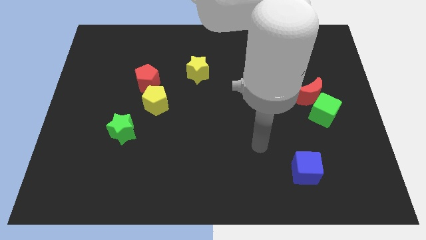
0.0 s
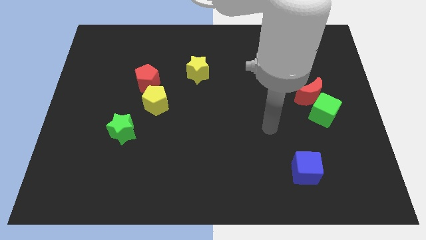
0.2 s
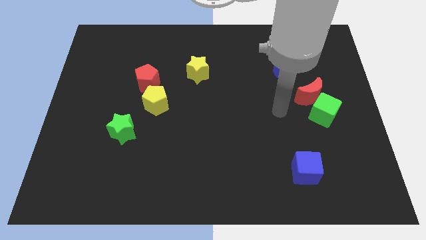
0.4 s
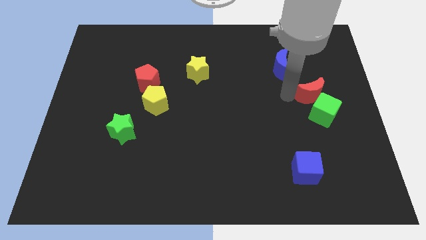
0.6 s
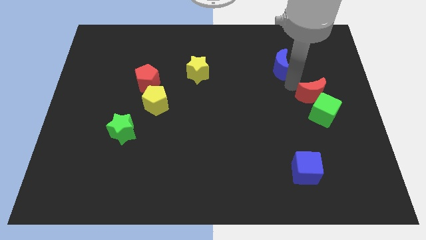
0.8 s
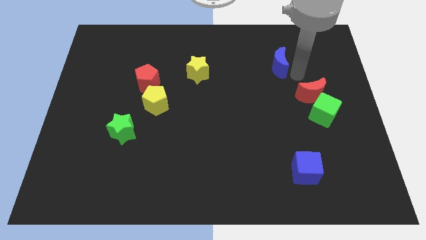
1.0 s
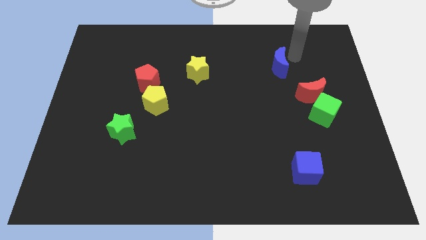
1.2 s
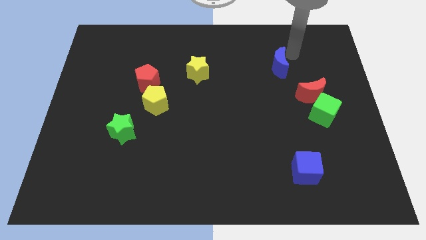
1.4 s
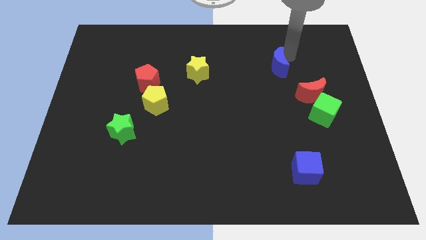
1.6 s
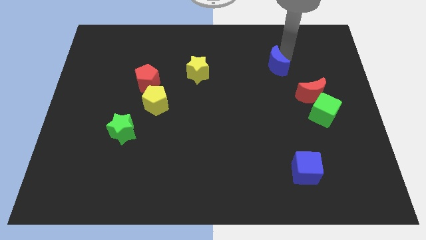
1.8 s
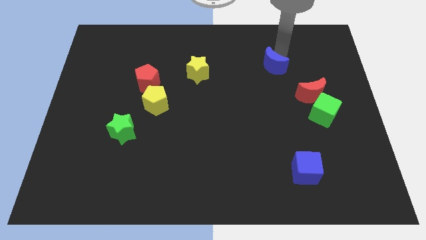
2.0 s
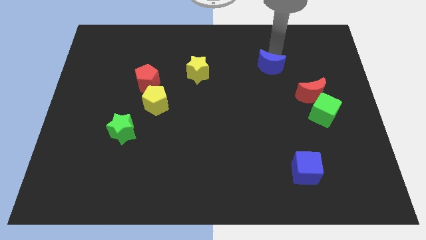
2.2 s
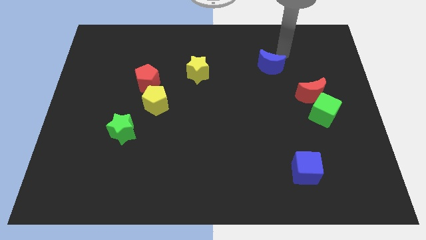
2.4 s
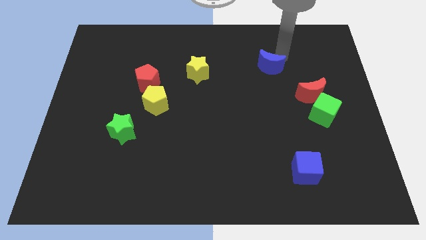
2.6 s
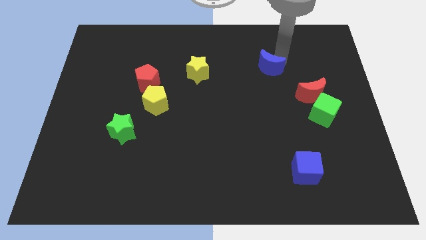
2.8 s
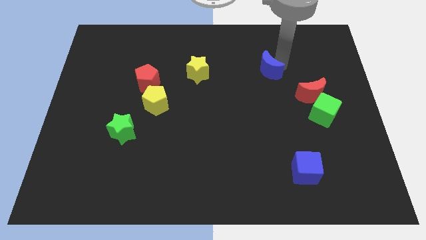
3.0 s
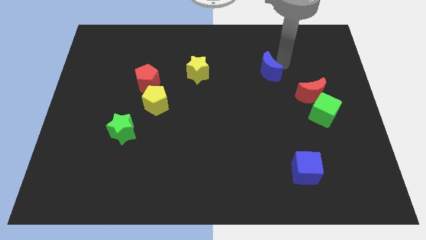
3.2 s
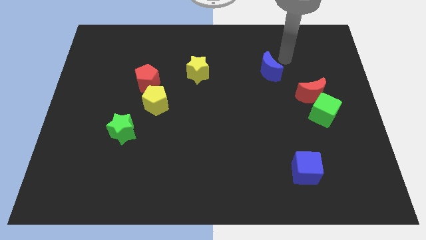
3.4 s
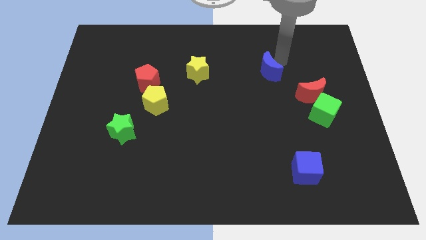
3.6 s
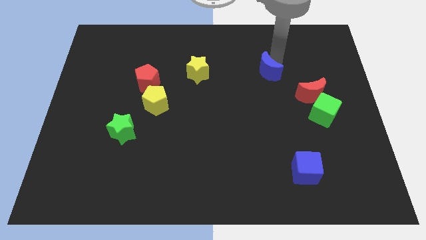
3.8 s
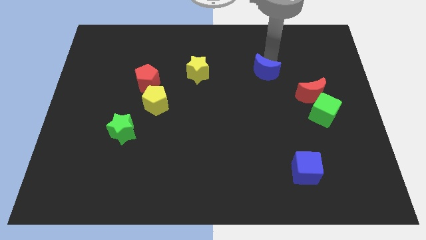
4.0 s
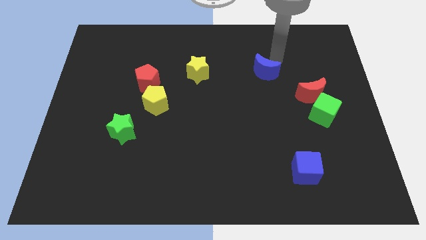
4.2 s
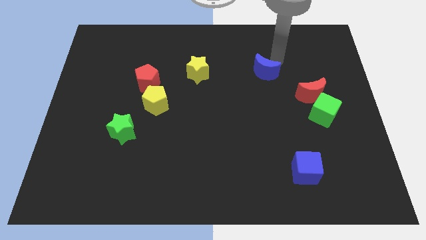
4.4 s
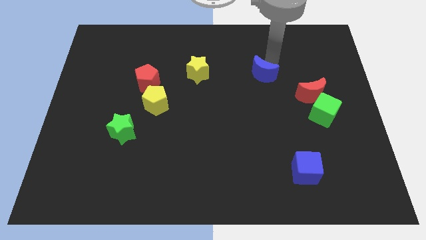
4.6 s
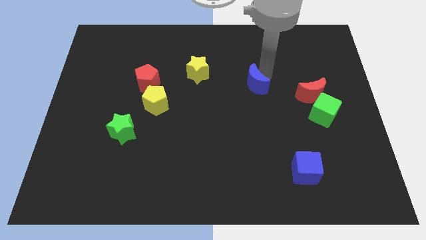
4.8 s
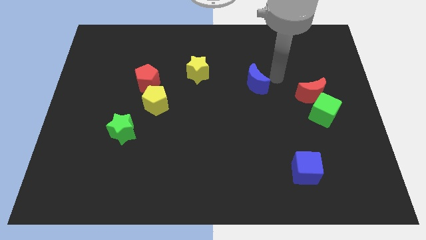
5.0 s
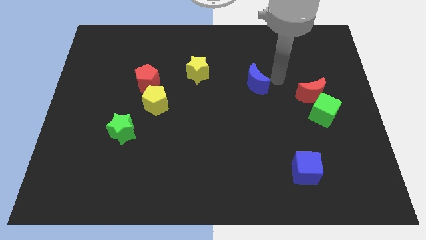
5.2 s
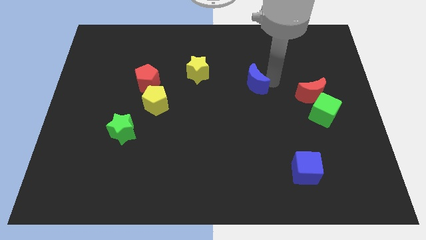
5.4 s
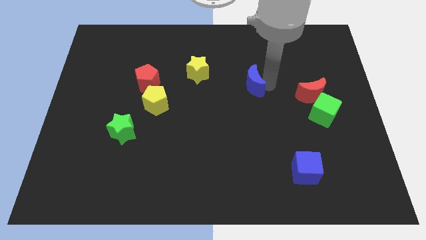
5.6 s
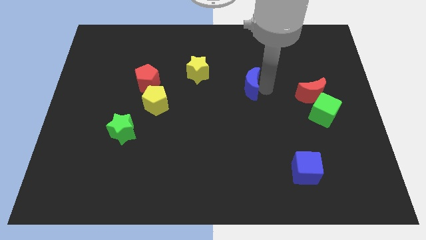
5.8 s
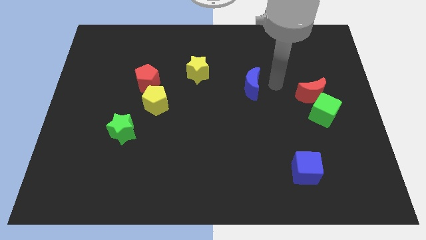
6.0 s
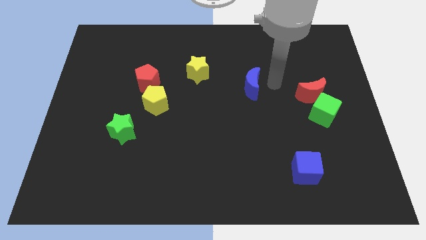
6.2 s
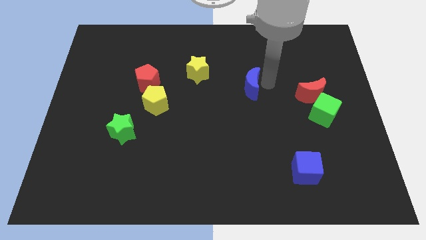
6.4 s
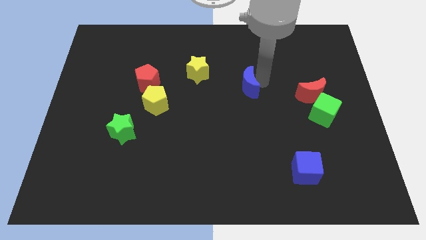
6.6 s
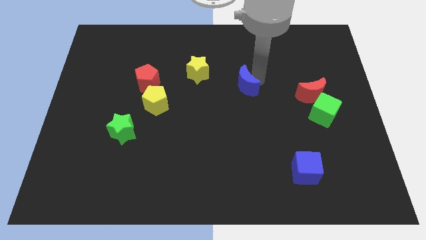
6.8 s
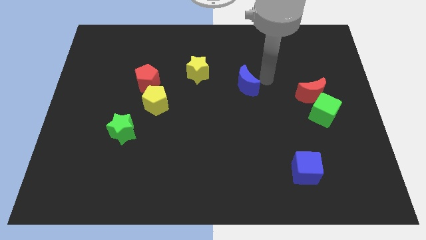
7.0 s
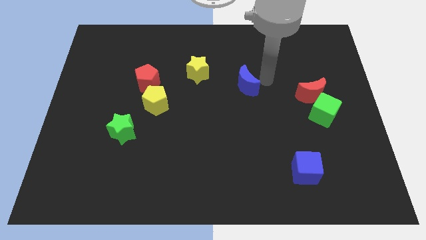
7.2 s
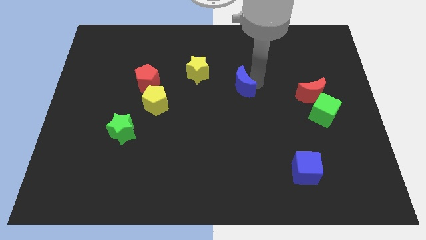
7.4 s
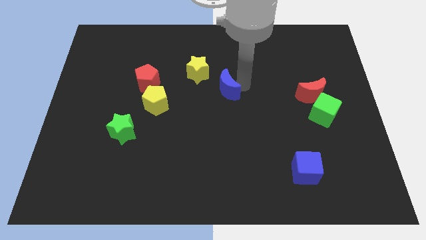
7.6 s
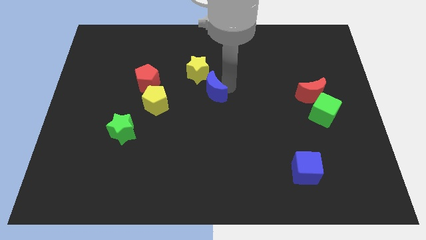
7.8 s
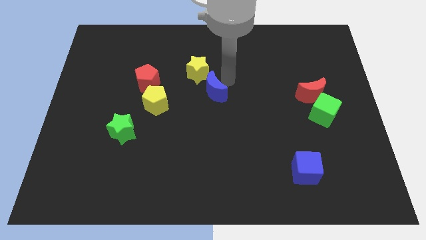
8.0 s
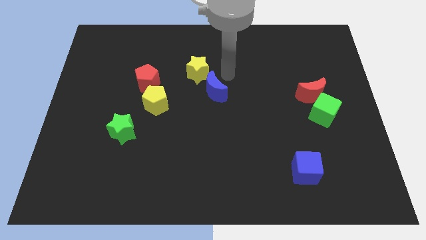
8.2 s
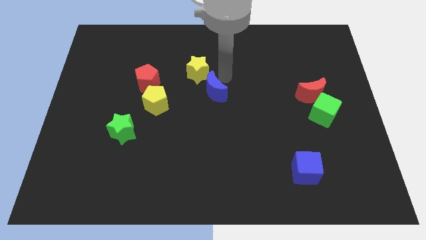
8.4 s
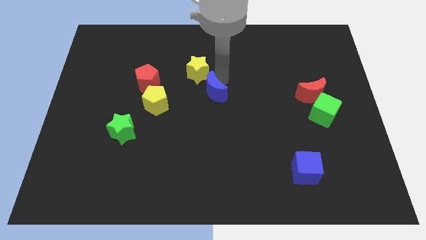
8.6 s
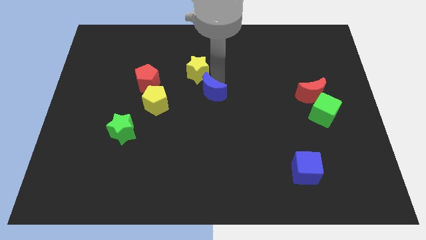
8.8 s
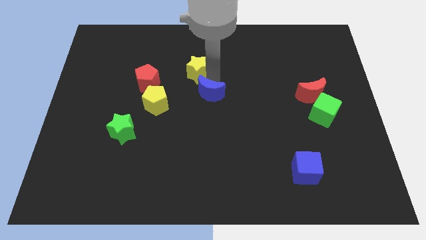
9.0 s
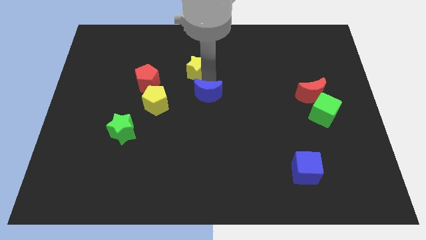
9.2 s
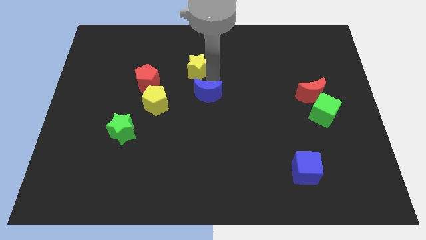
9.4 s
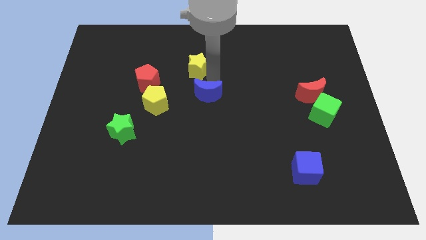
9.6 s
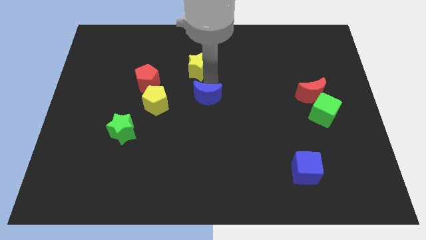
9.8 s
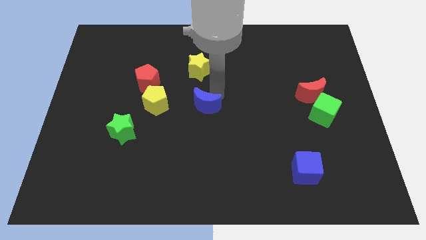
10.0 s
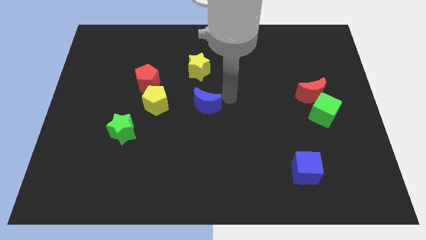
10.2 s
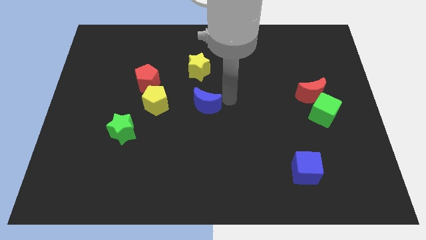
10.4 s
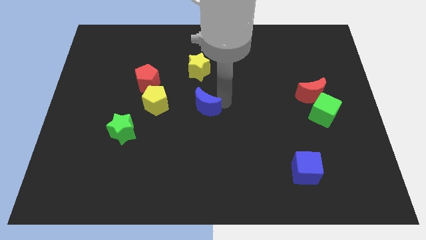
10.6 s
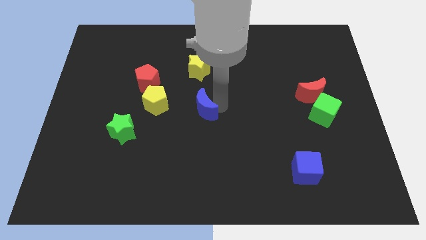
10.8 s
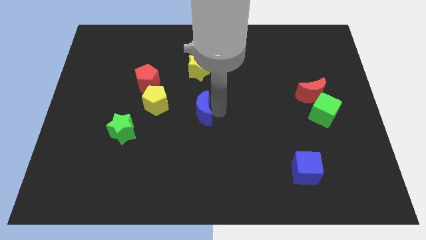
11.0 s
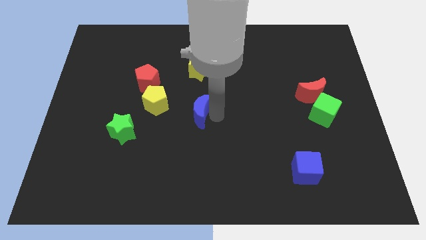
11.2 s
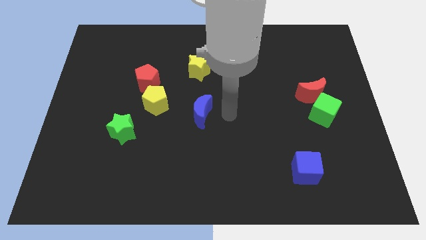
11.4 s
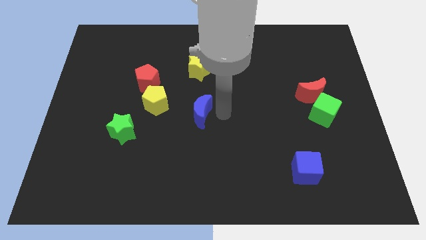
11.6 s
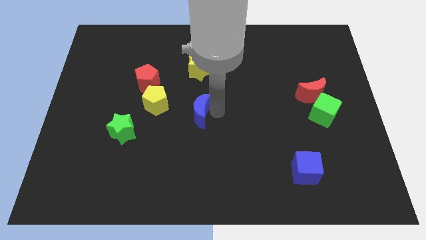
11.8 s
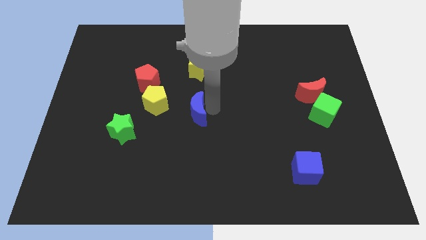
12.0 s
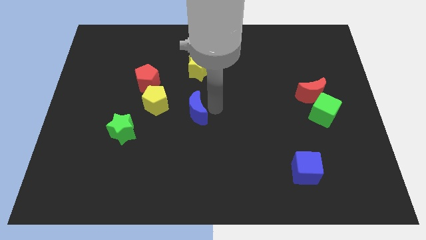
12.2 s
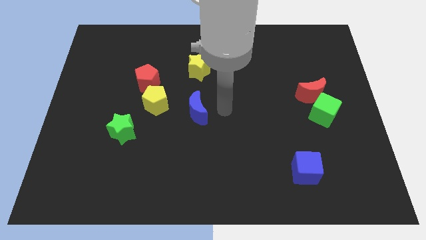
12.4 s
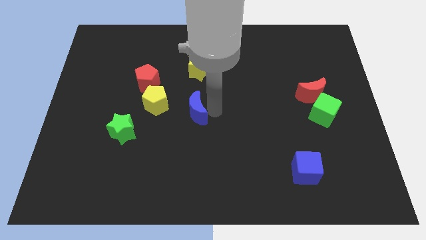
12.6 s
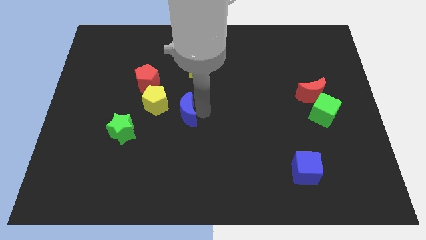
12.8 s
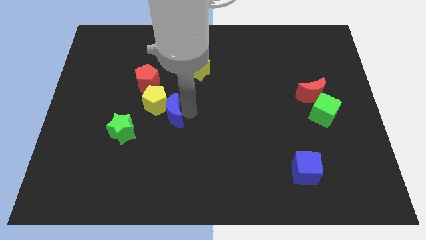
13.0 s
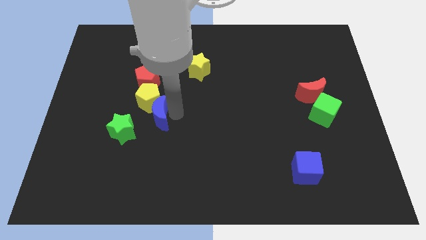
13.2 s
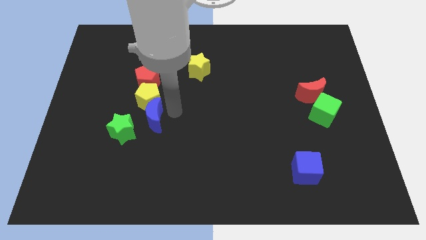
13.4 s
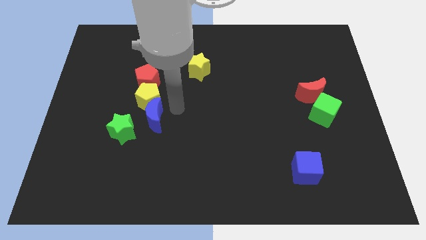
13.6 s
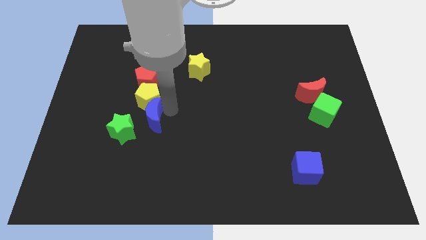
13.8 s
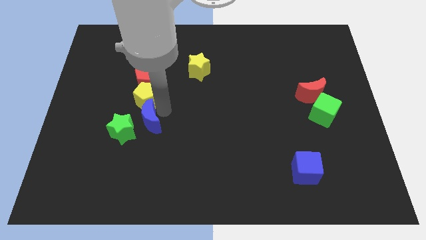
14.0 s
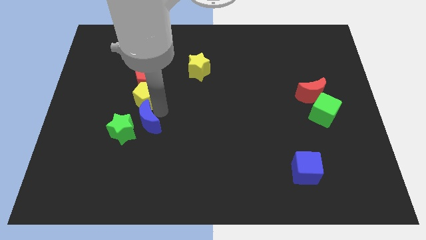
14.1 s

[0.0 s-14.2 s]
slide the blue moon close to the green star

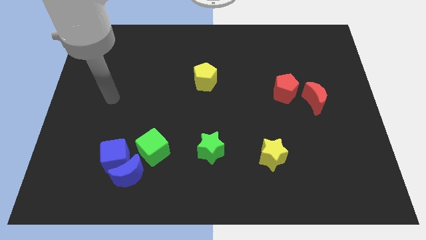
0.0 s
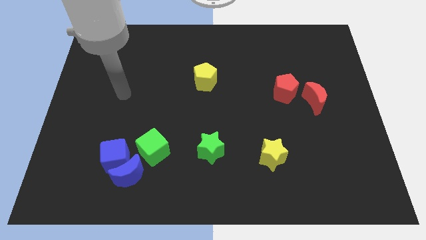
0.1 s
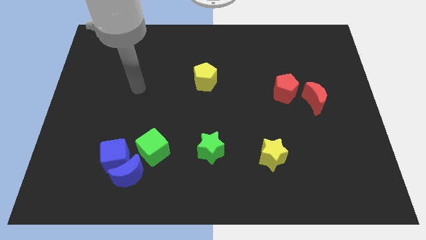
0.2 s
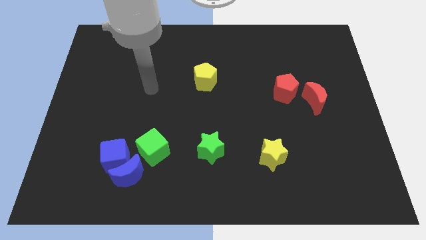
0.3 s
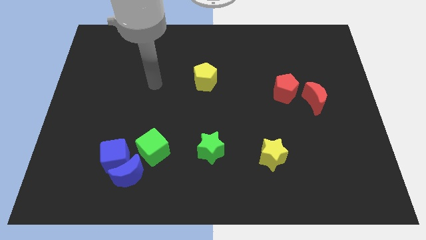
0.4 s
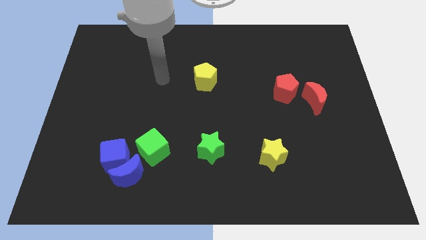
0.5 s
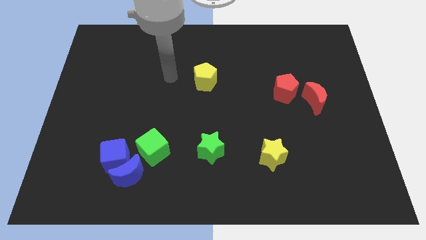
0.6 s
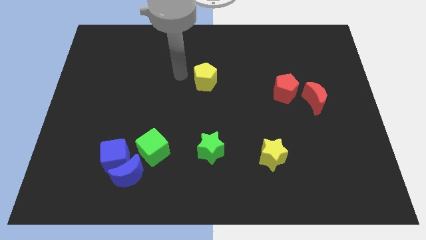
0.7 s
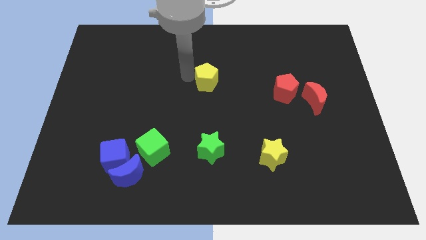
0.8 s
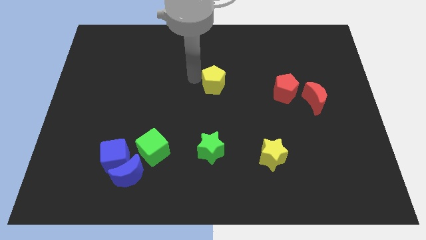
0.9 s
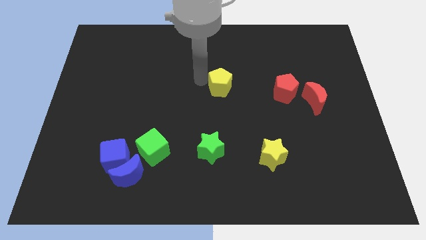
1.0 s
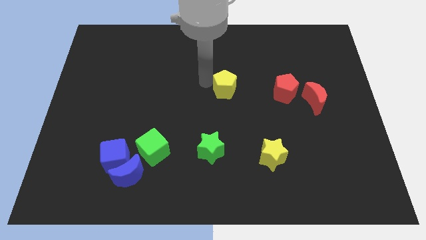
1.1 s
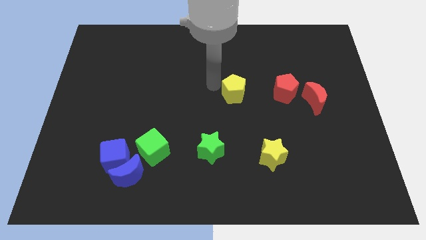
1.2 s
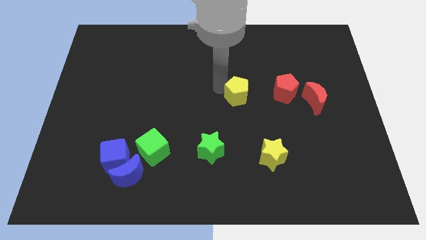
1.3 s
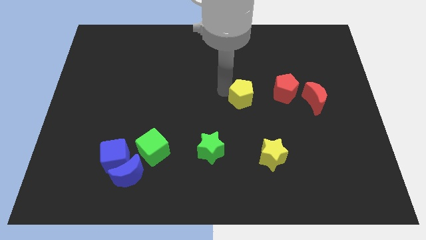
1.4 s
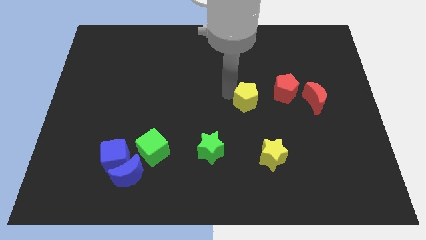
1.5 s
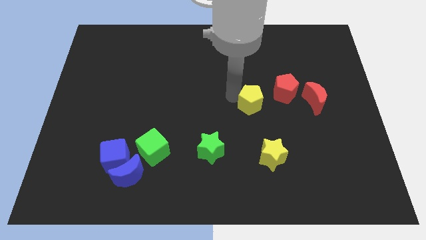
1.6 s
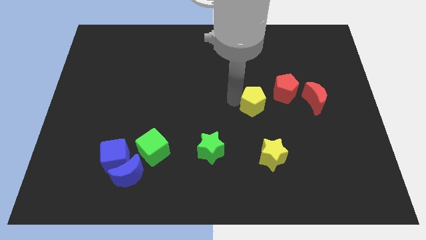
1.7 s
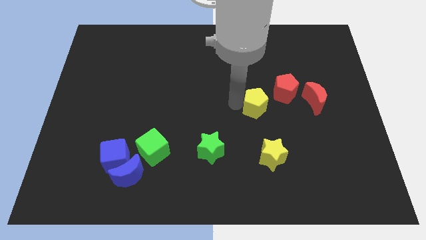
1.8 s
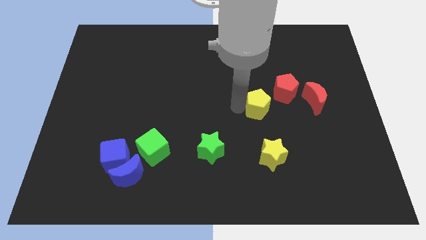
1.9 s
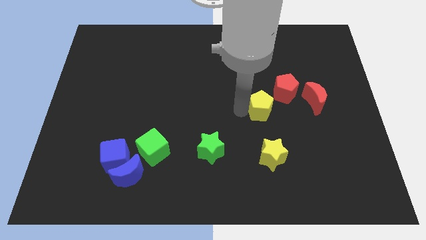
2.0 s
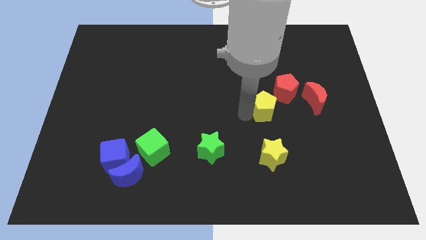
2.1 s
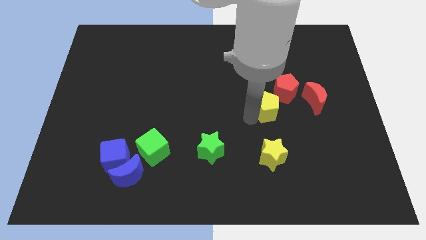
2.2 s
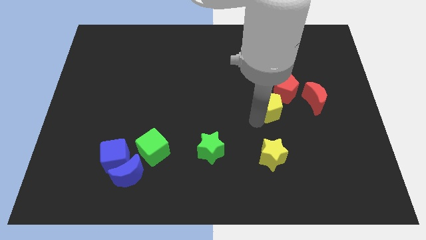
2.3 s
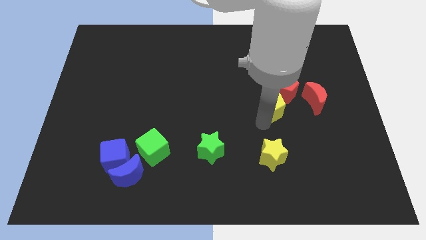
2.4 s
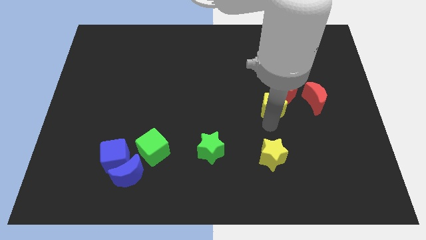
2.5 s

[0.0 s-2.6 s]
push the yellow pentagon towards the red pentagon
